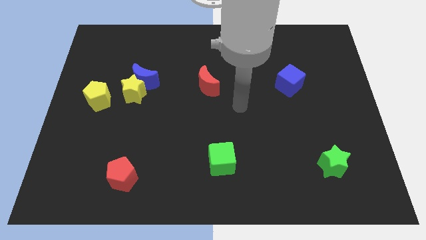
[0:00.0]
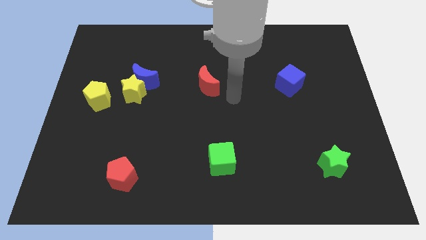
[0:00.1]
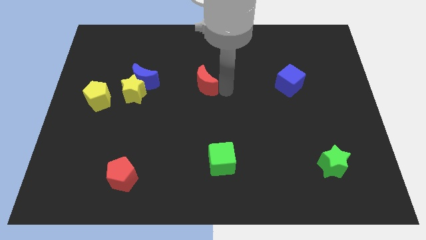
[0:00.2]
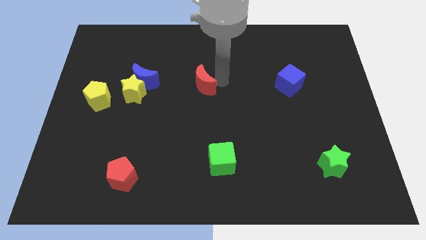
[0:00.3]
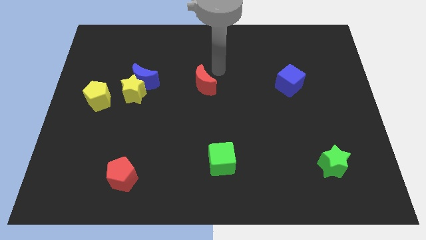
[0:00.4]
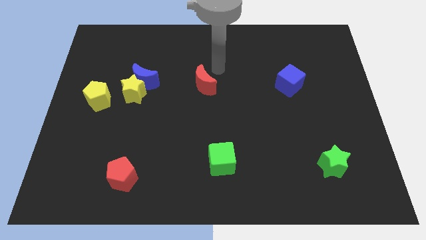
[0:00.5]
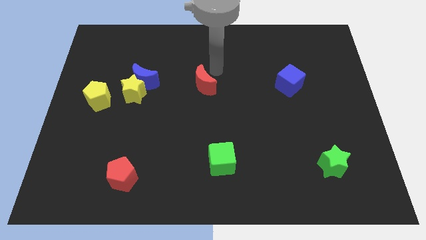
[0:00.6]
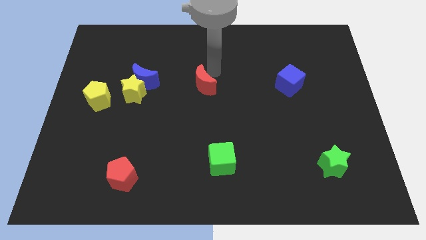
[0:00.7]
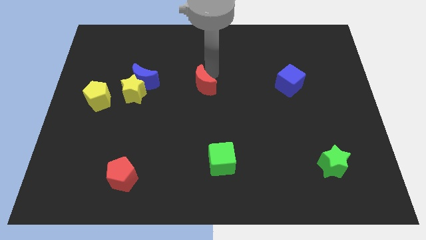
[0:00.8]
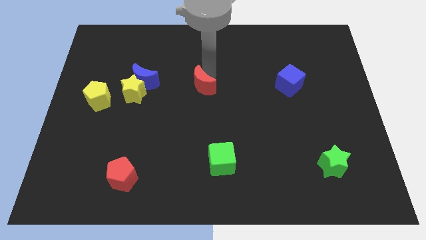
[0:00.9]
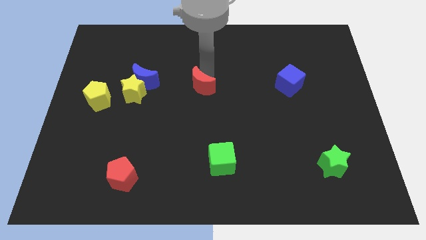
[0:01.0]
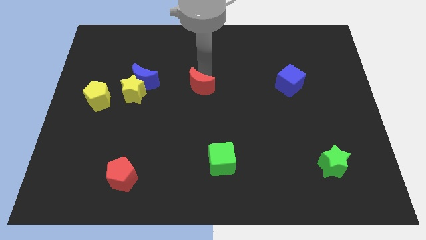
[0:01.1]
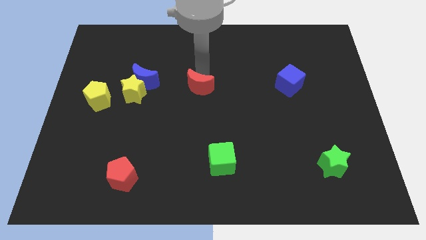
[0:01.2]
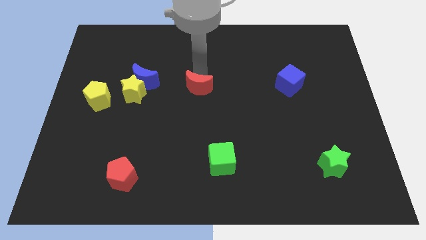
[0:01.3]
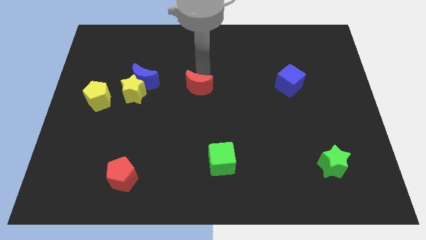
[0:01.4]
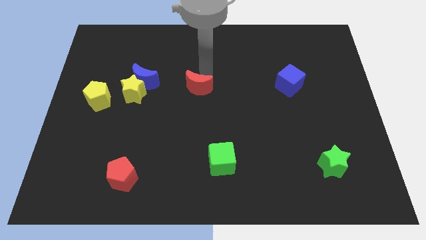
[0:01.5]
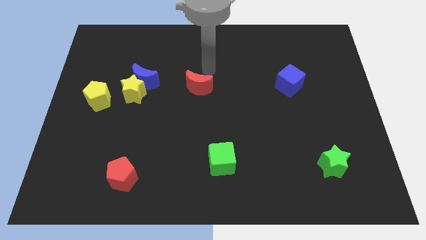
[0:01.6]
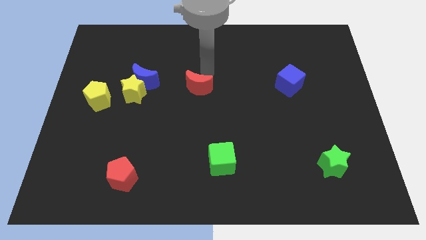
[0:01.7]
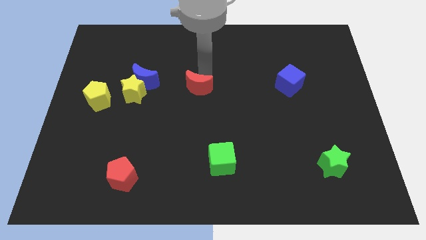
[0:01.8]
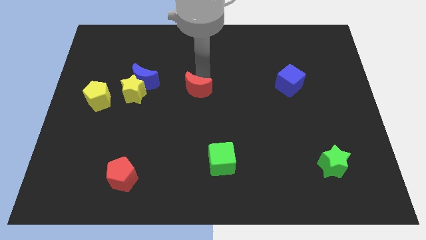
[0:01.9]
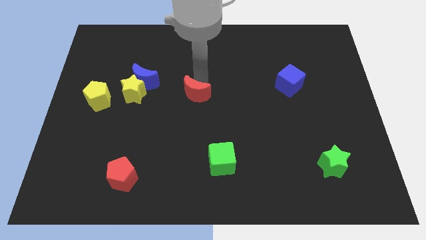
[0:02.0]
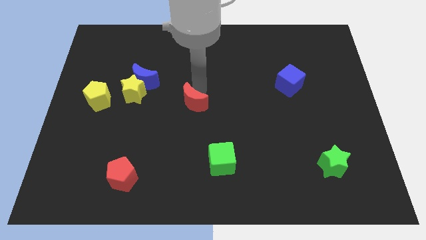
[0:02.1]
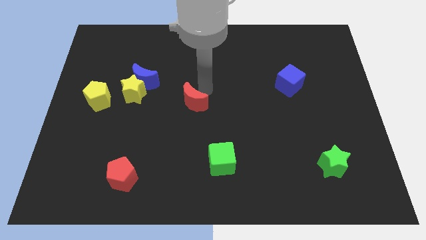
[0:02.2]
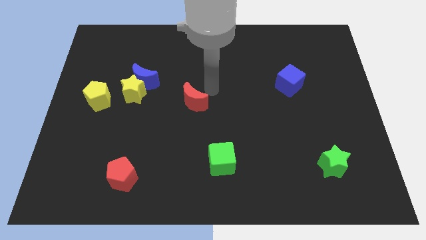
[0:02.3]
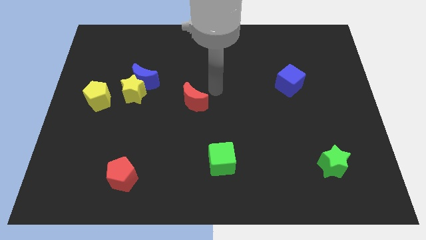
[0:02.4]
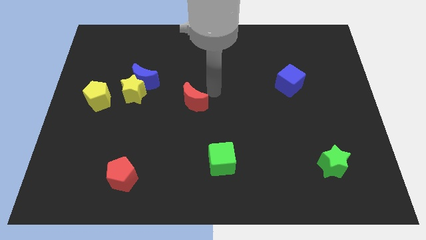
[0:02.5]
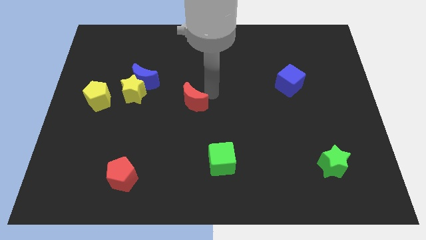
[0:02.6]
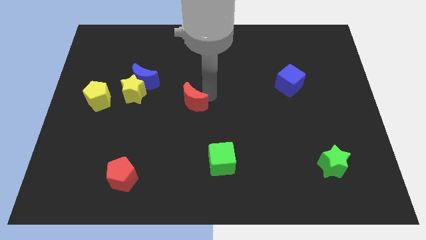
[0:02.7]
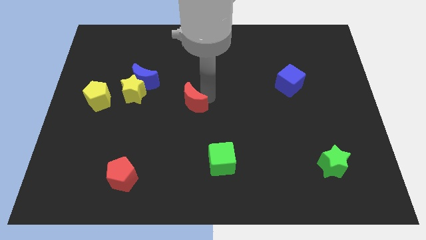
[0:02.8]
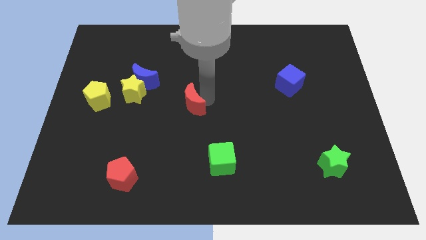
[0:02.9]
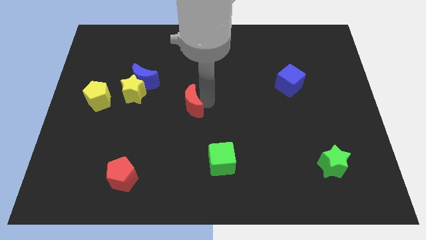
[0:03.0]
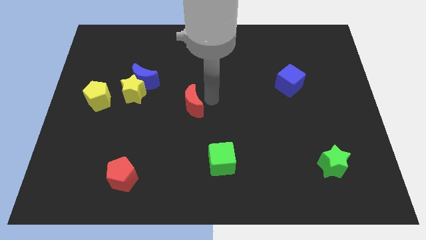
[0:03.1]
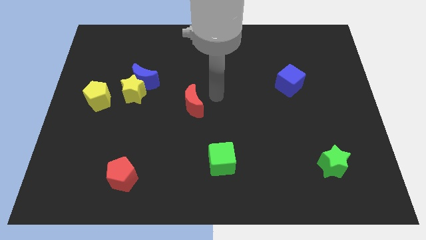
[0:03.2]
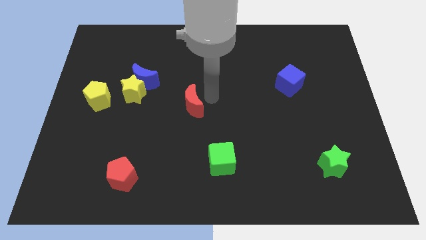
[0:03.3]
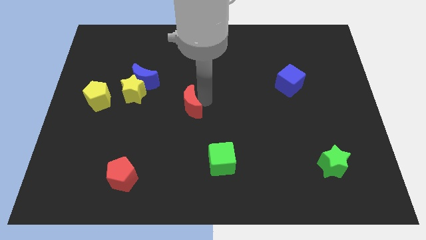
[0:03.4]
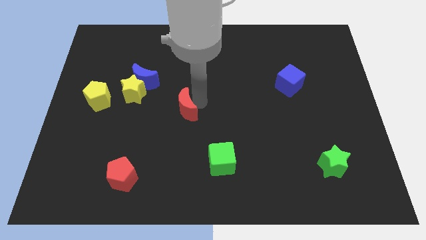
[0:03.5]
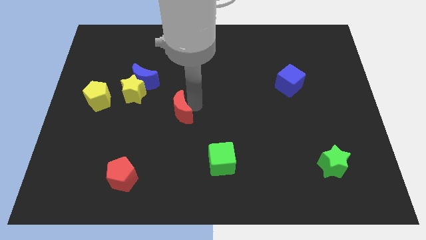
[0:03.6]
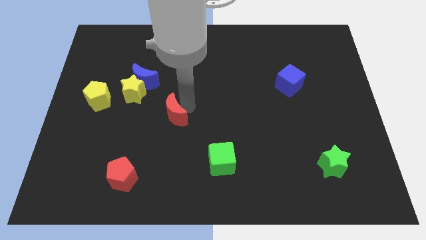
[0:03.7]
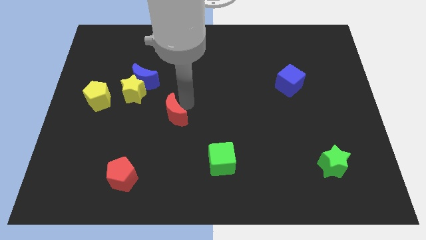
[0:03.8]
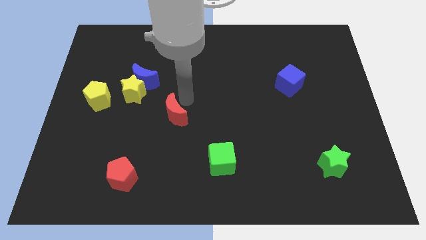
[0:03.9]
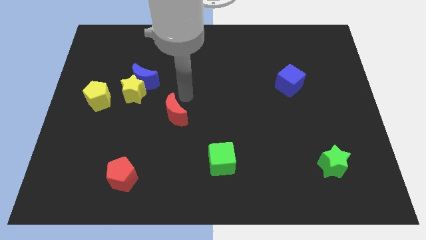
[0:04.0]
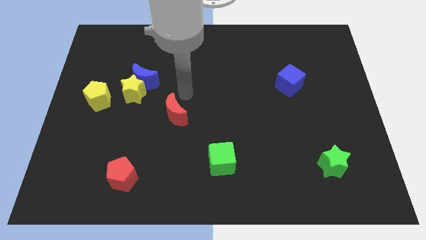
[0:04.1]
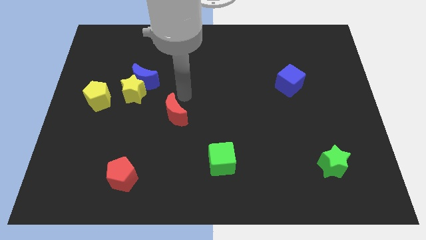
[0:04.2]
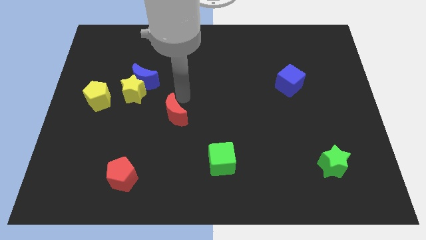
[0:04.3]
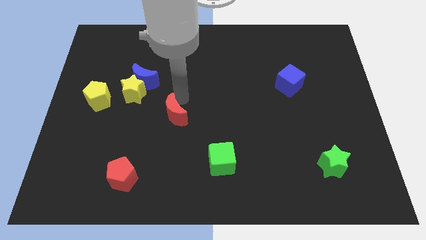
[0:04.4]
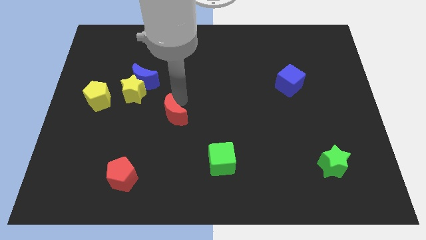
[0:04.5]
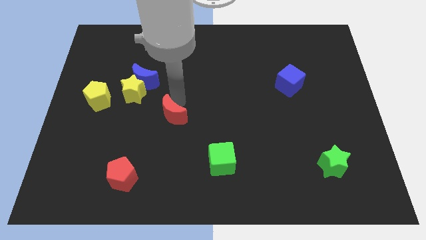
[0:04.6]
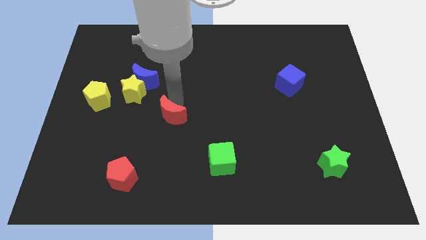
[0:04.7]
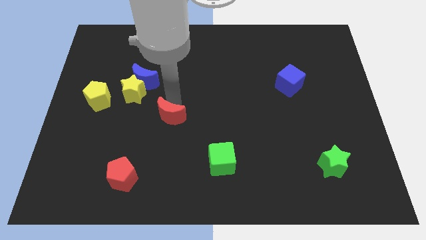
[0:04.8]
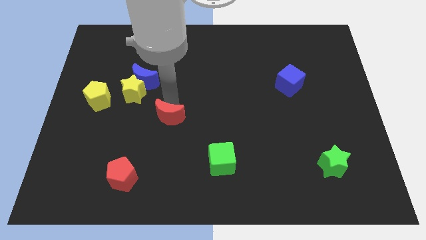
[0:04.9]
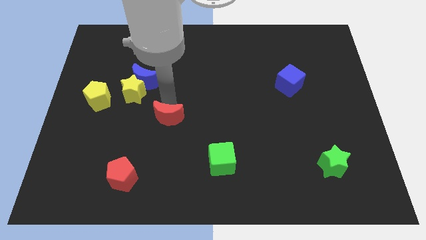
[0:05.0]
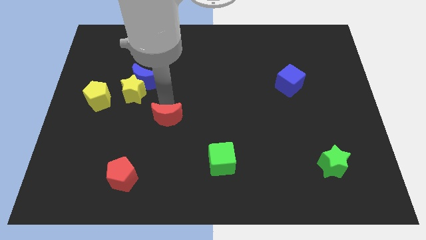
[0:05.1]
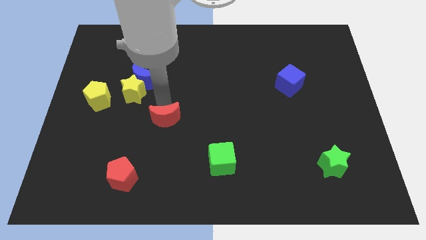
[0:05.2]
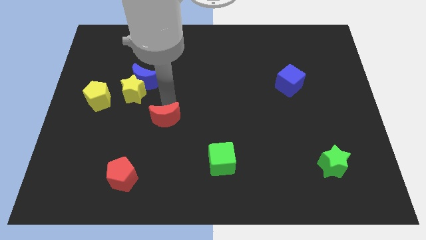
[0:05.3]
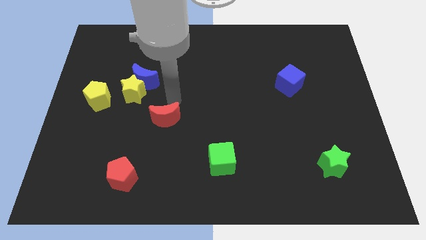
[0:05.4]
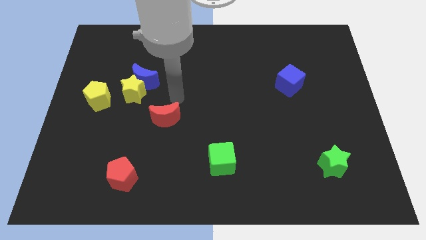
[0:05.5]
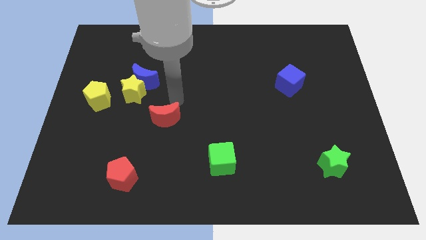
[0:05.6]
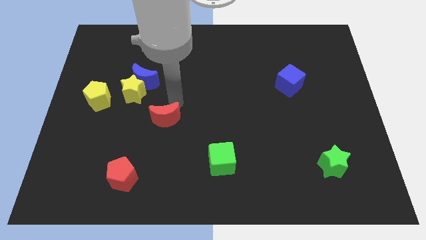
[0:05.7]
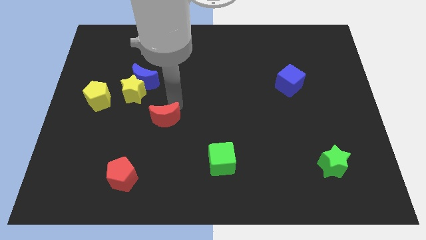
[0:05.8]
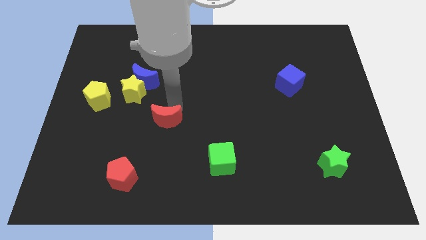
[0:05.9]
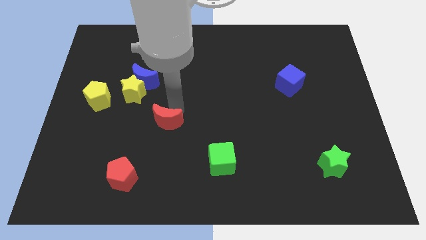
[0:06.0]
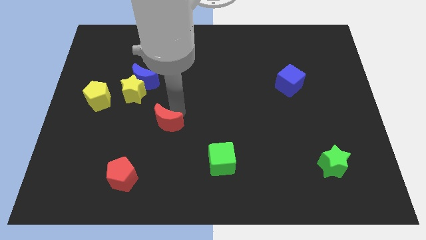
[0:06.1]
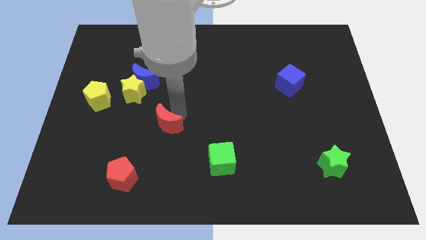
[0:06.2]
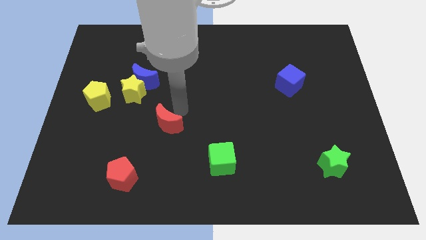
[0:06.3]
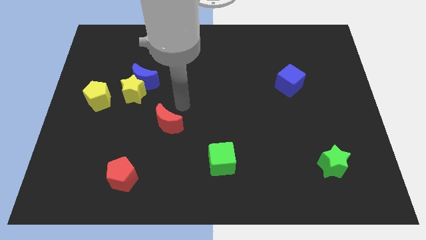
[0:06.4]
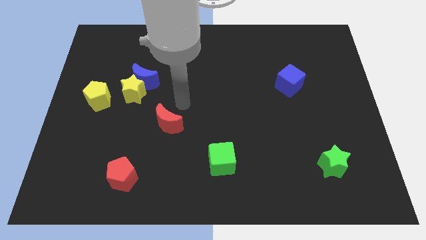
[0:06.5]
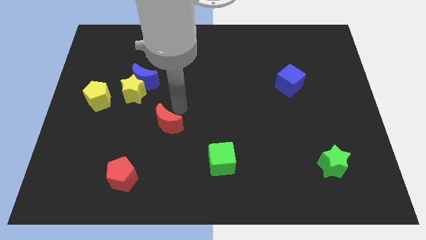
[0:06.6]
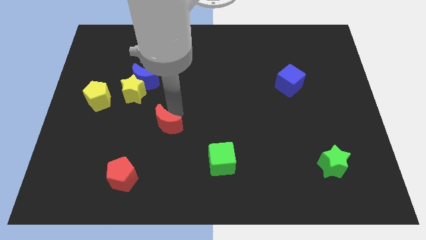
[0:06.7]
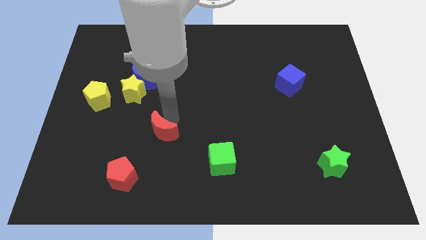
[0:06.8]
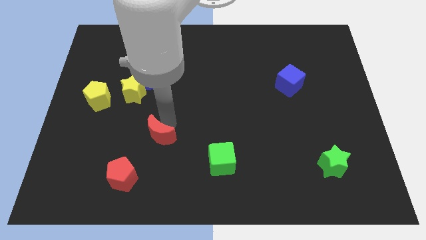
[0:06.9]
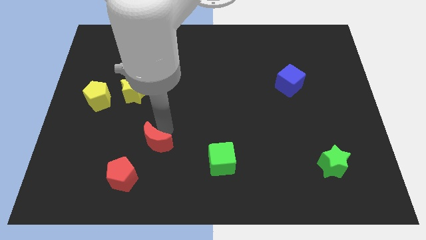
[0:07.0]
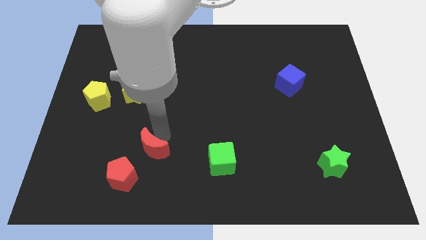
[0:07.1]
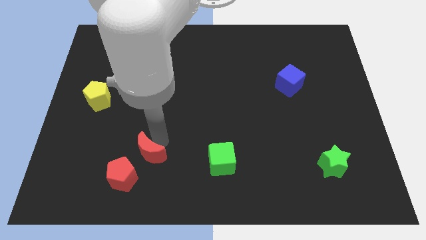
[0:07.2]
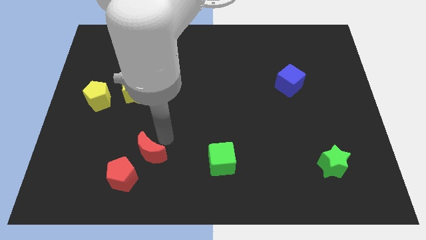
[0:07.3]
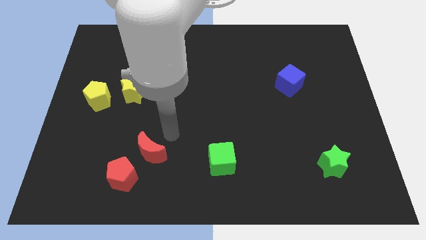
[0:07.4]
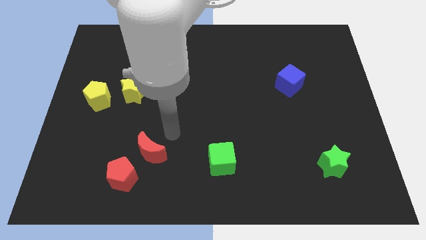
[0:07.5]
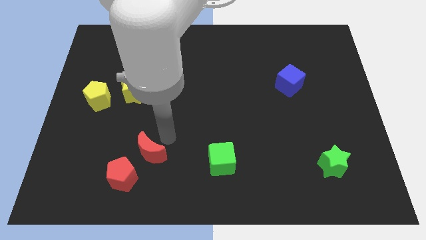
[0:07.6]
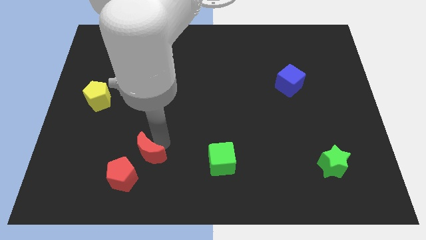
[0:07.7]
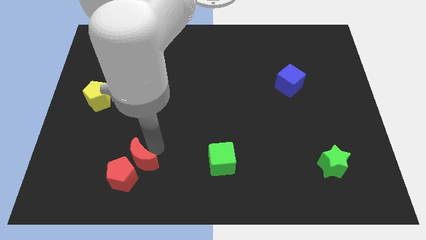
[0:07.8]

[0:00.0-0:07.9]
push the red moon close to the red pentagon
